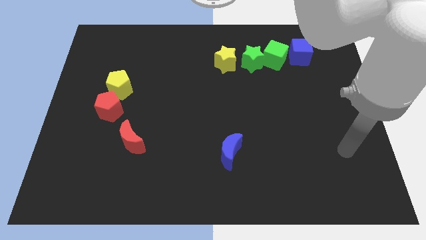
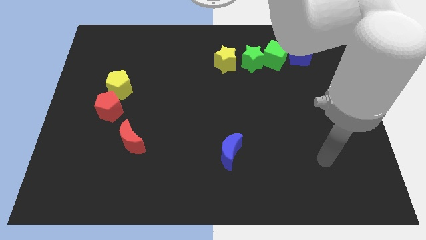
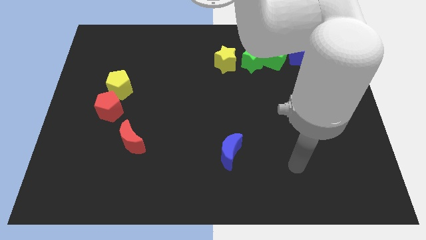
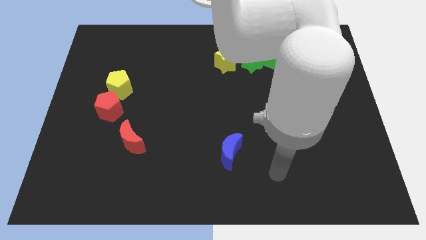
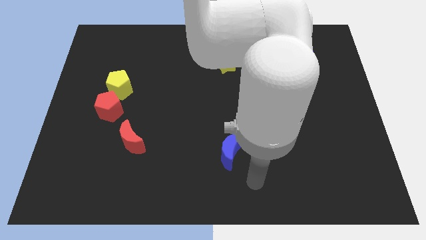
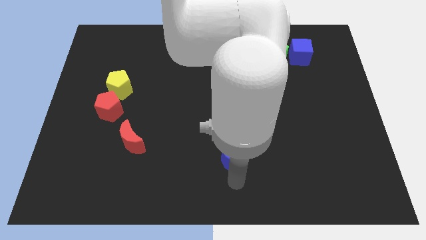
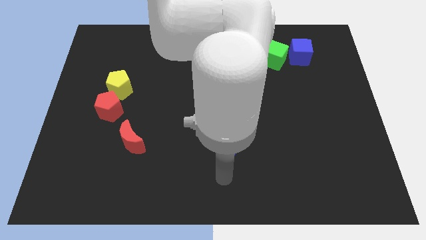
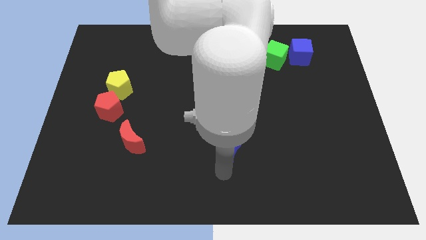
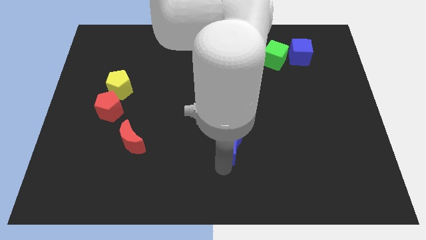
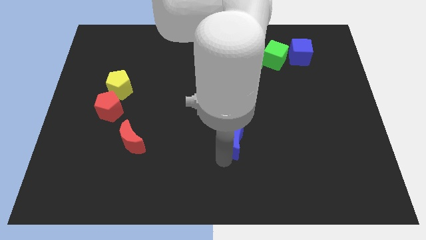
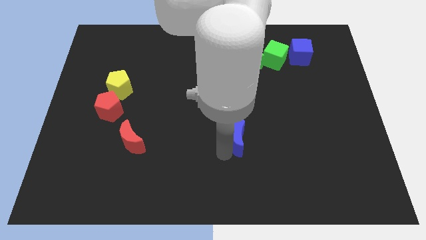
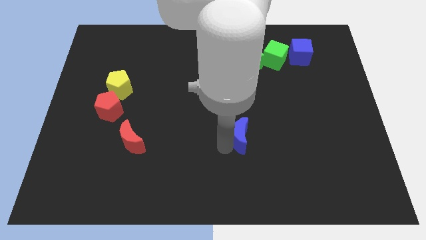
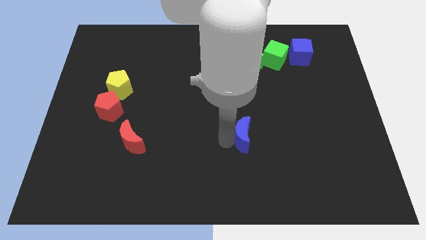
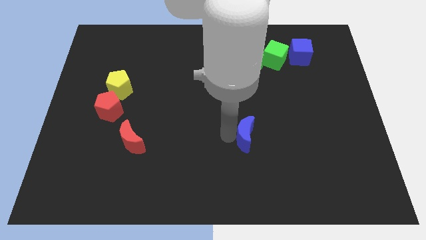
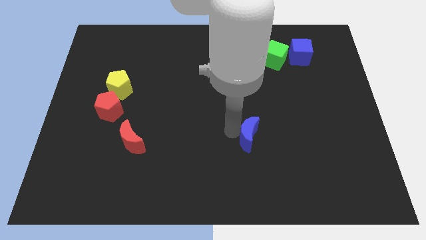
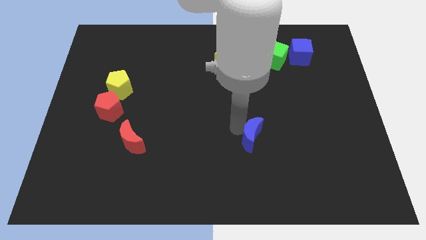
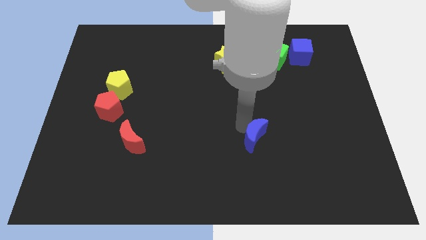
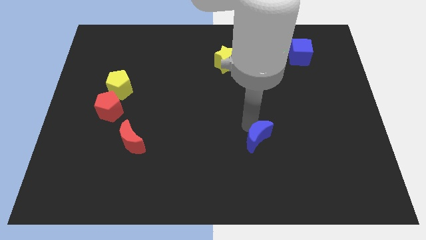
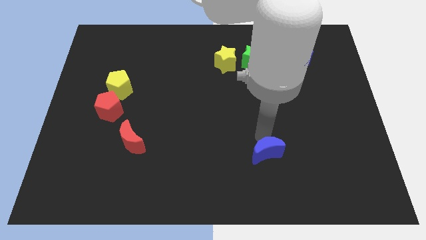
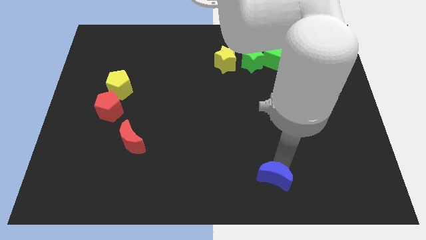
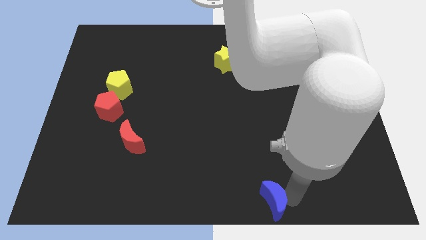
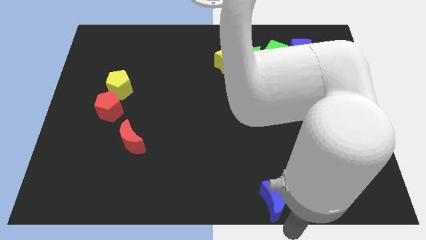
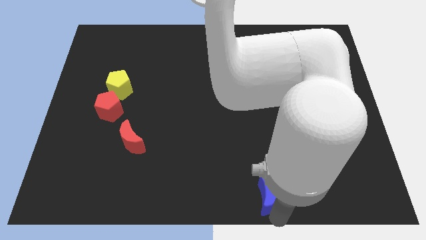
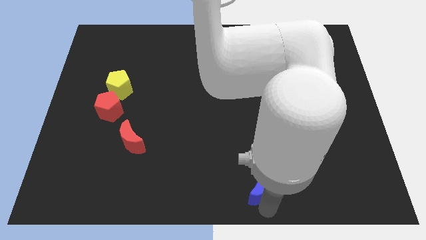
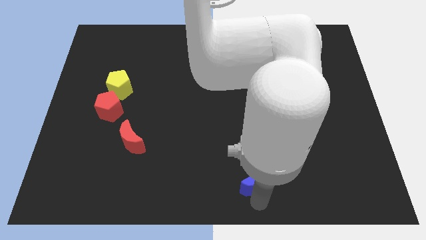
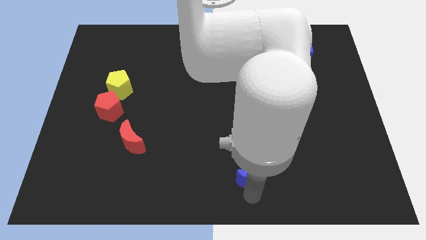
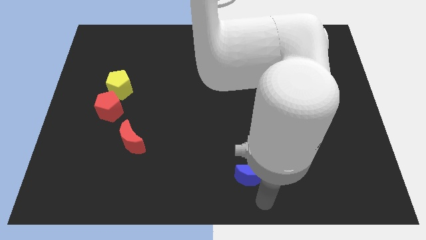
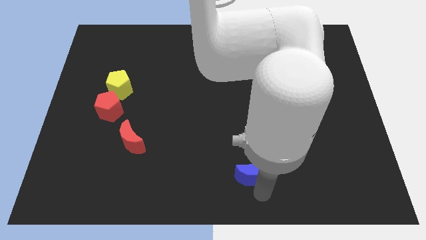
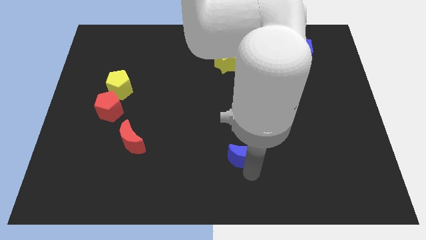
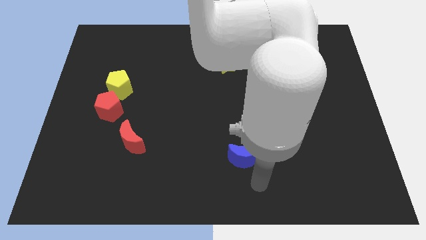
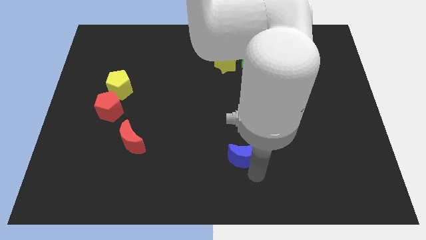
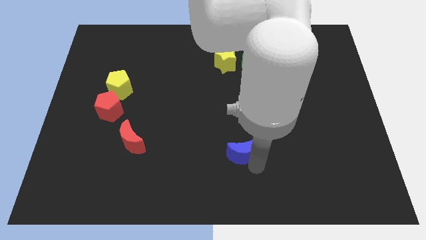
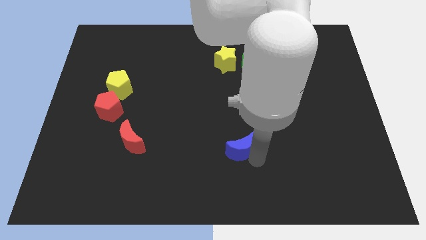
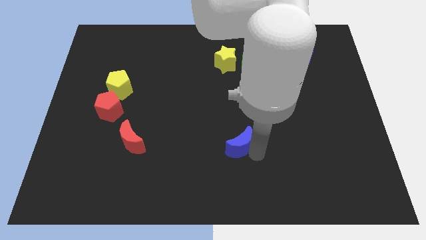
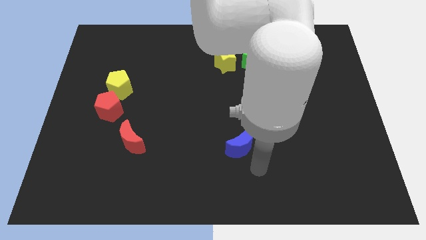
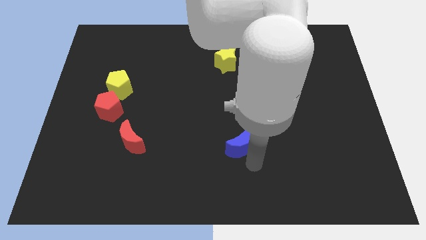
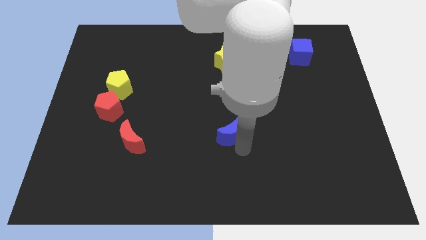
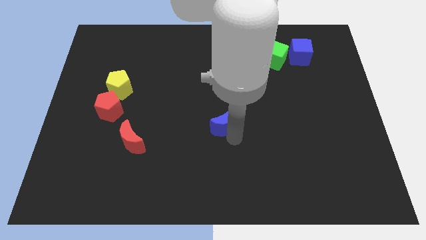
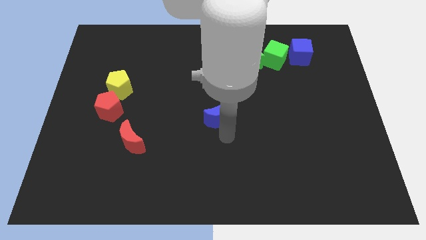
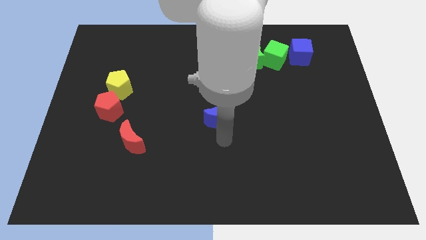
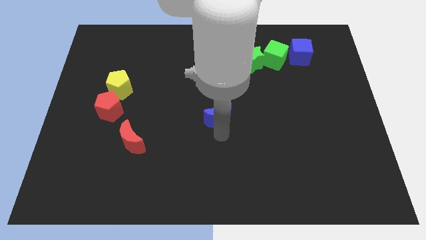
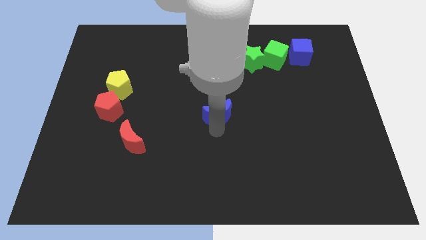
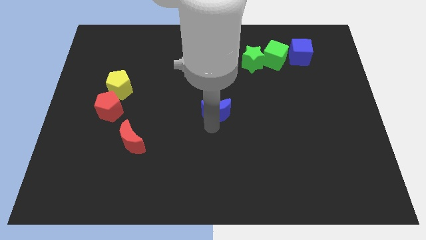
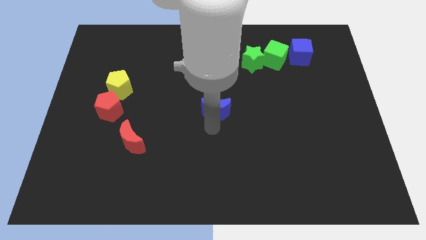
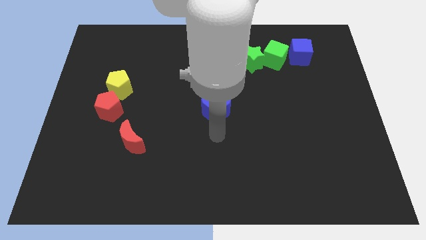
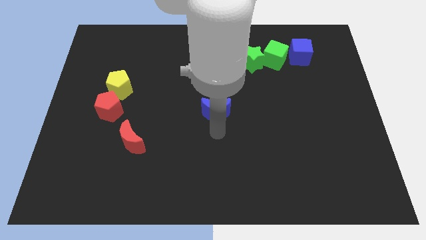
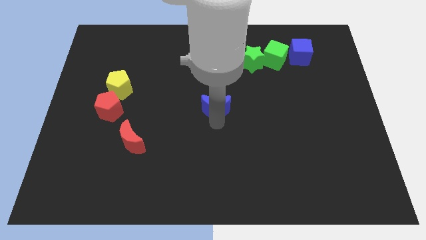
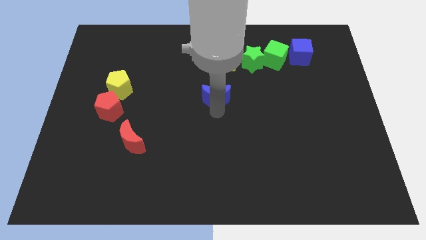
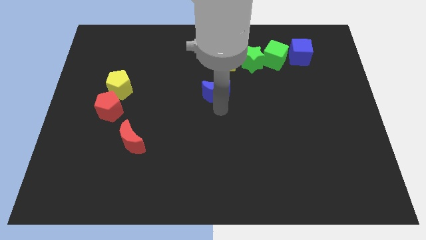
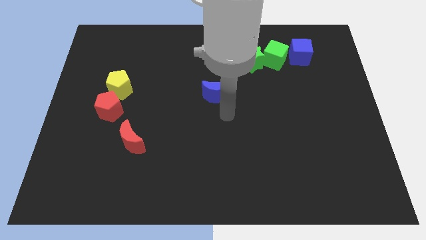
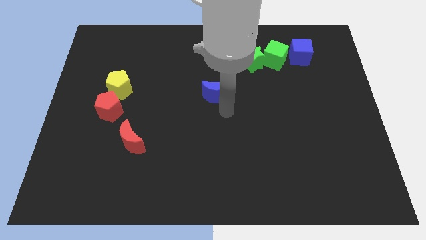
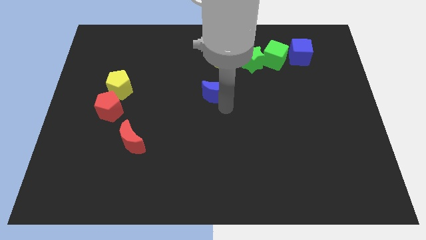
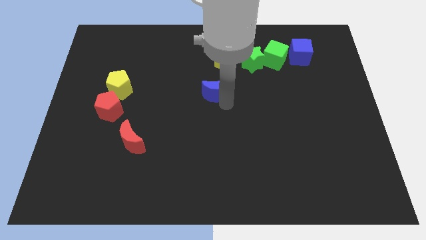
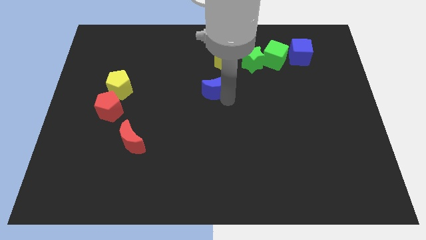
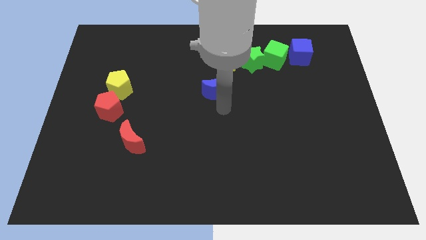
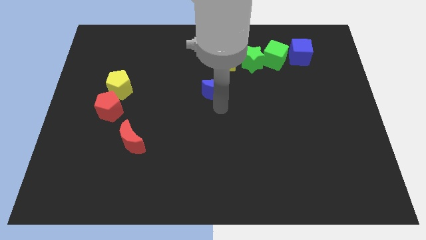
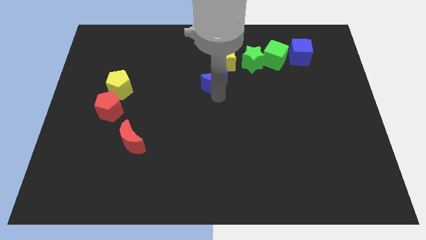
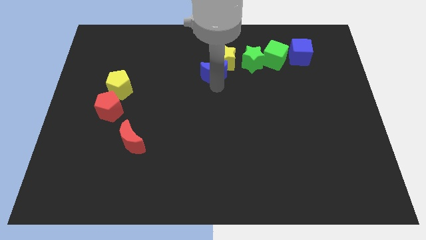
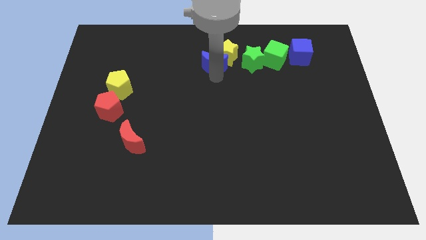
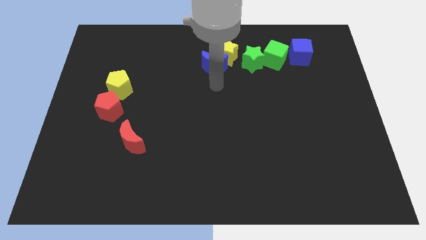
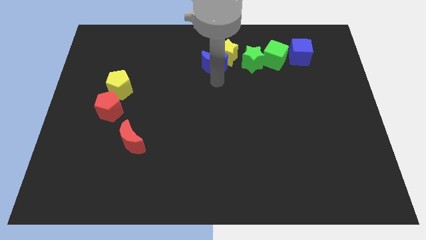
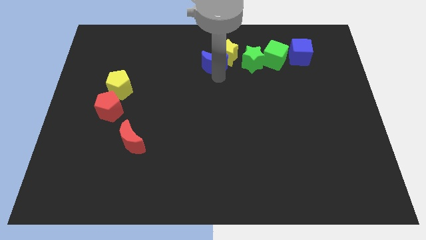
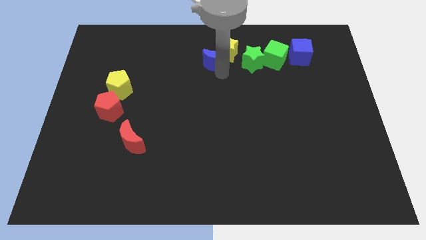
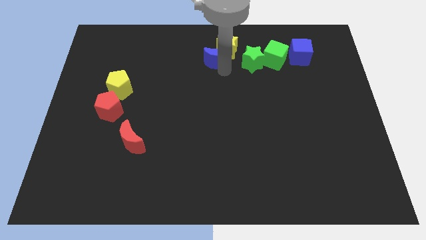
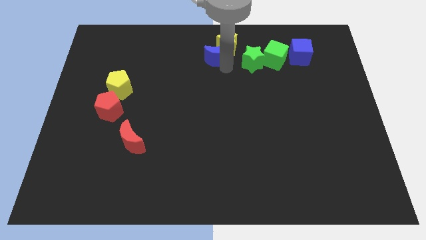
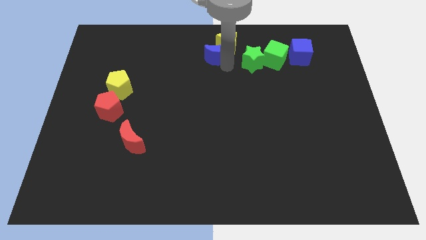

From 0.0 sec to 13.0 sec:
put the blue moon to the top side
